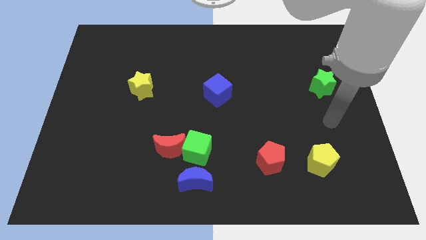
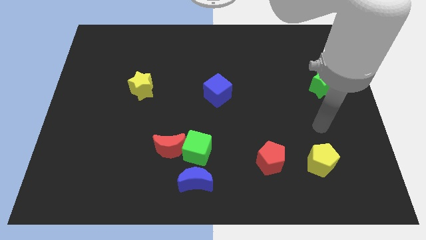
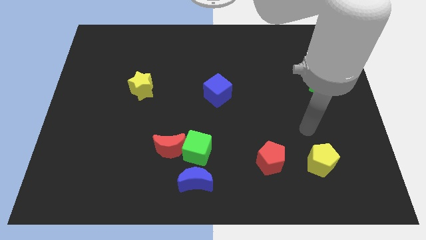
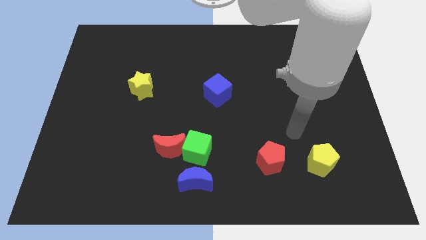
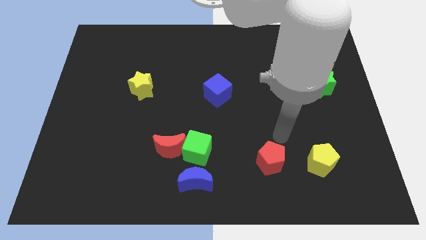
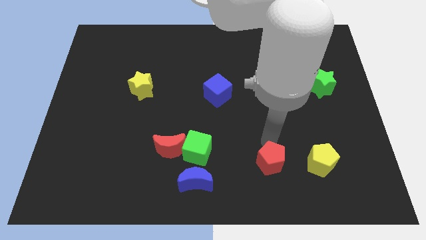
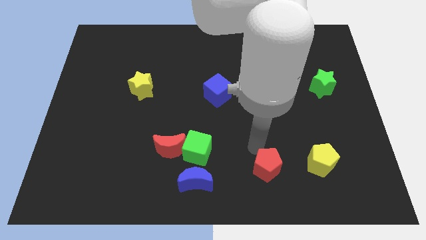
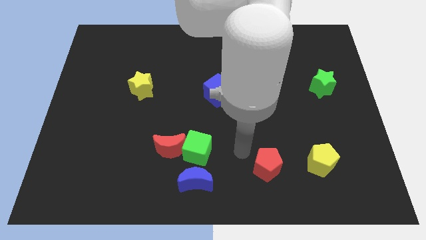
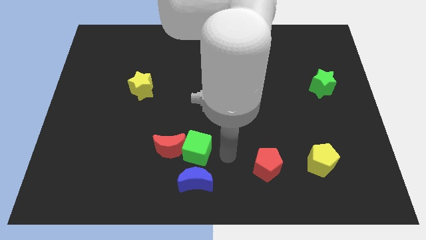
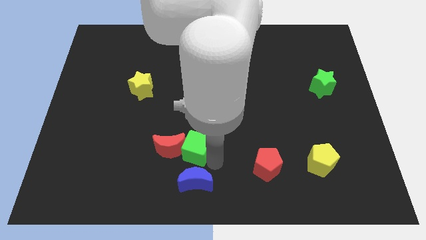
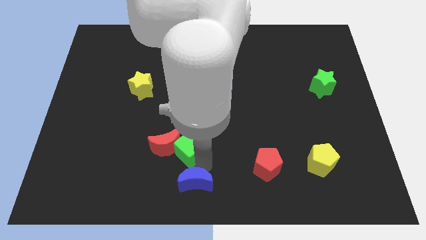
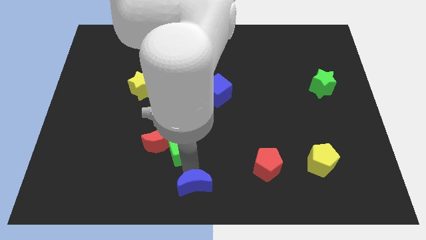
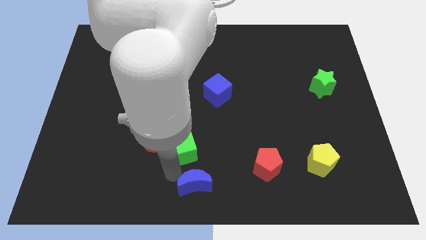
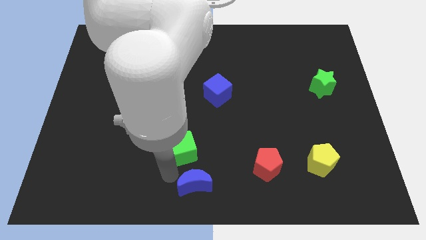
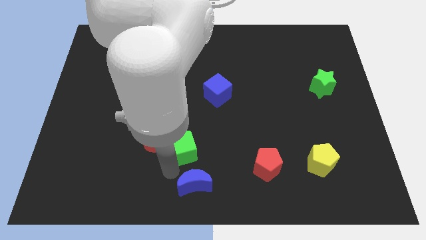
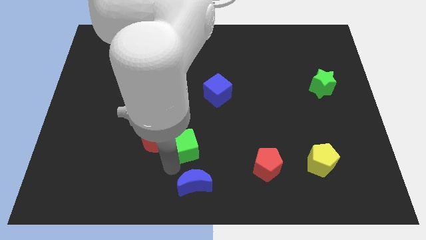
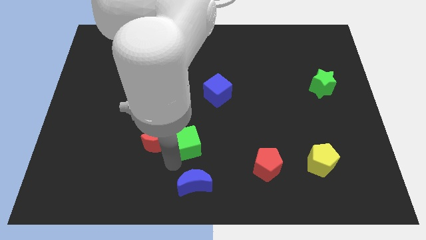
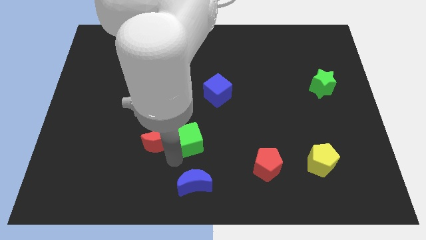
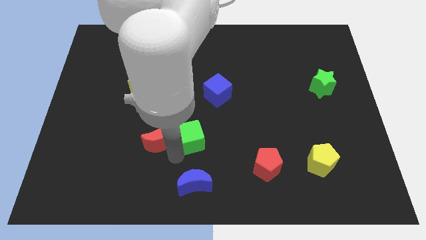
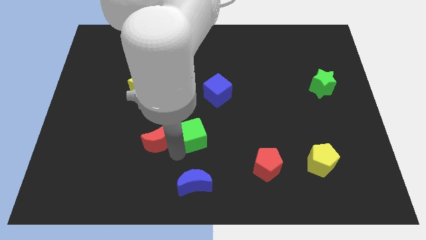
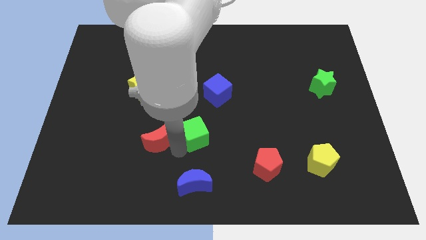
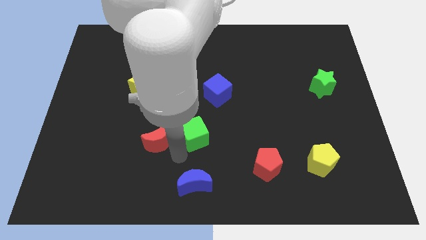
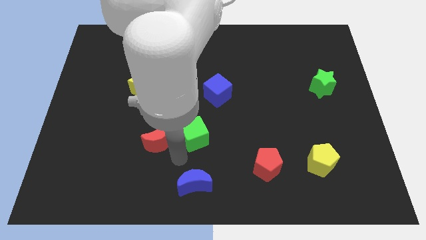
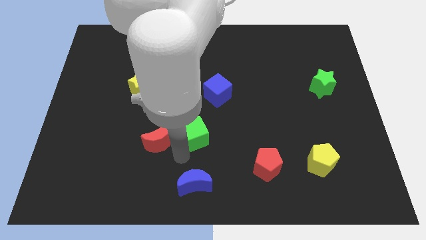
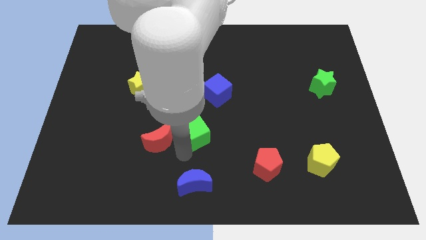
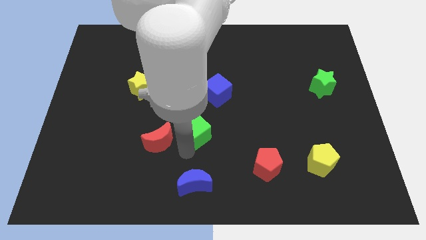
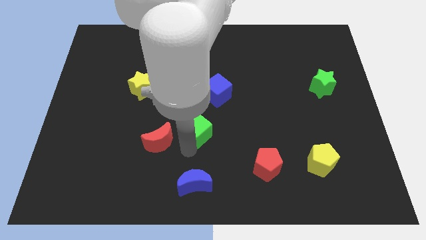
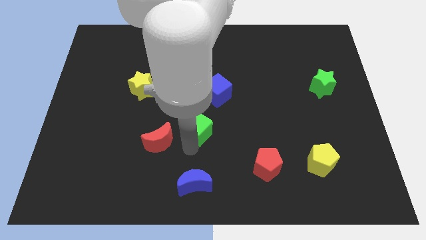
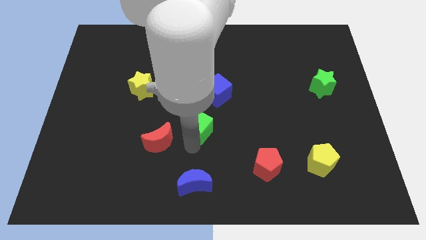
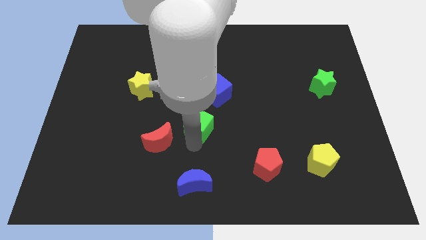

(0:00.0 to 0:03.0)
move the green cube away from the red moon and blue moon

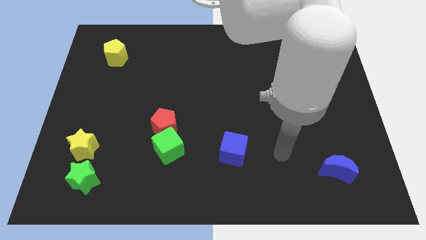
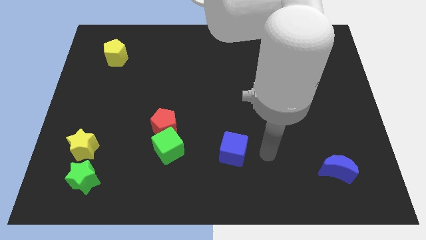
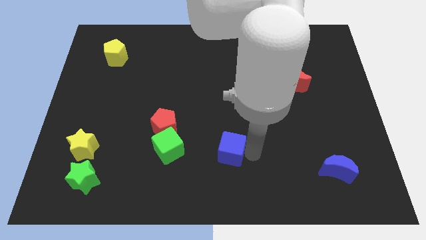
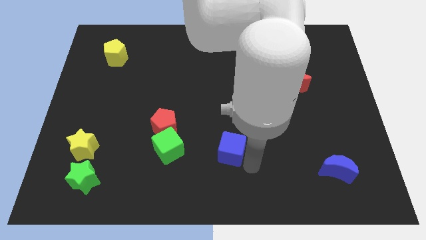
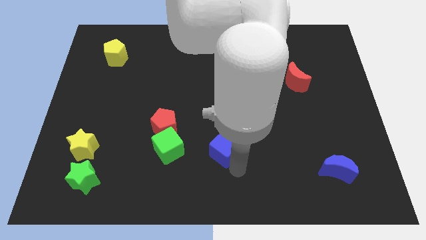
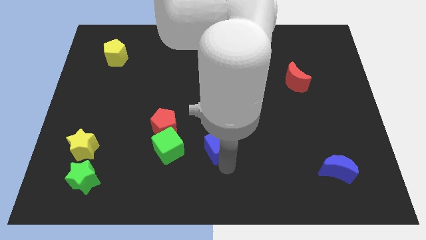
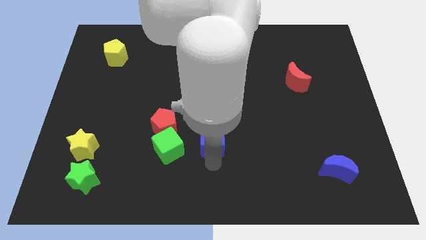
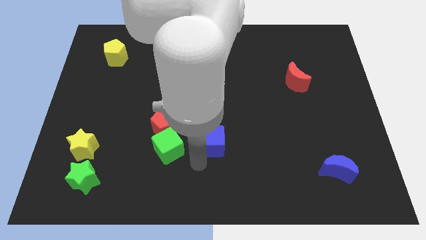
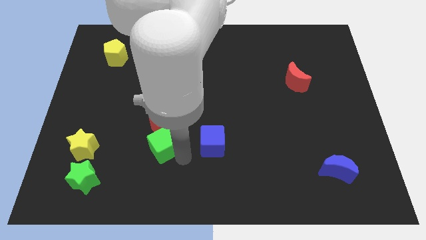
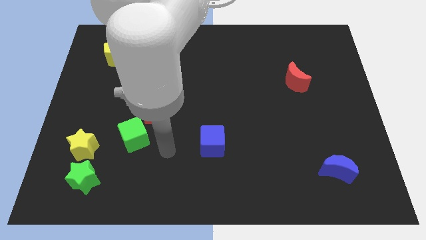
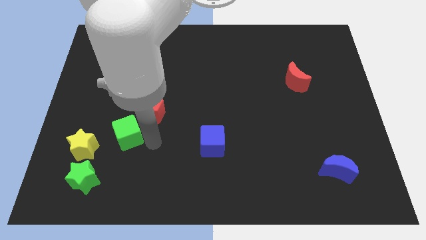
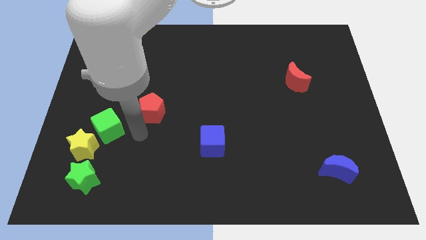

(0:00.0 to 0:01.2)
separate the red pentagon from the green cube

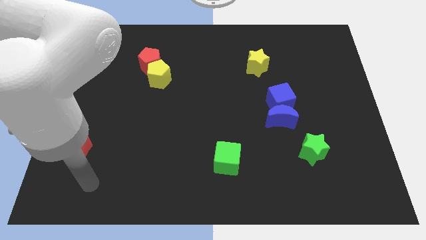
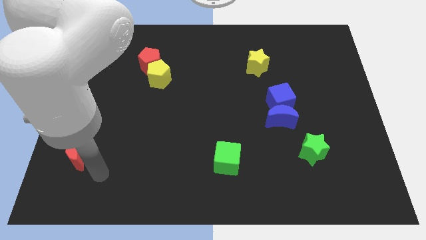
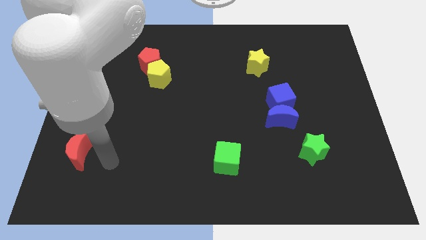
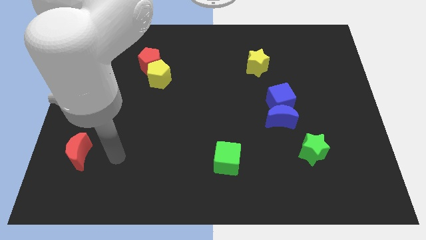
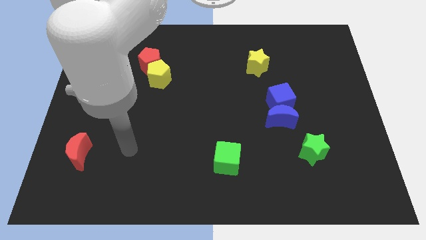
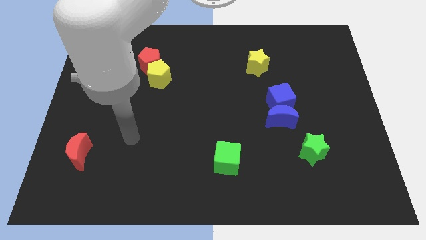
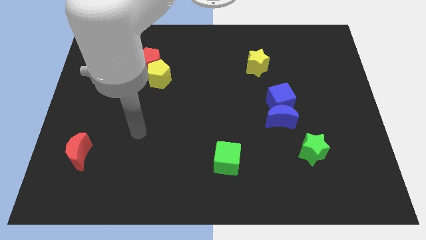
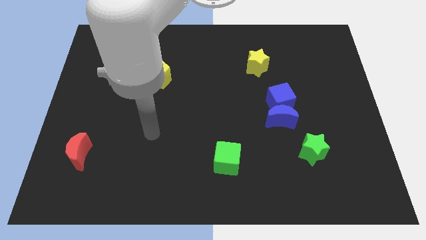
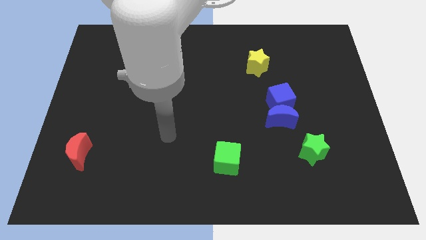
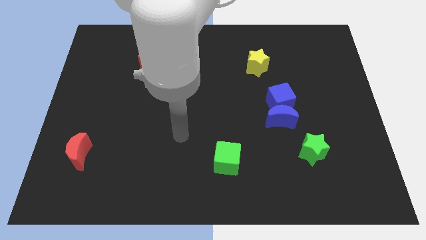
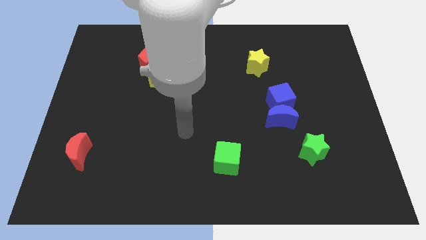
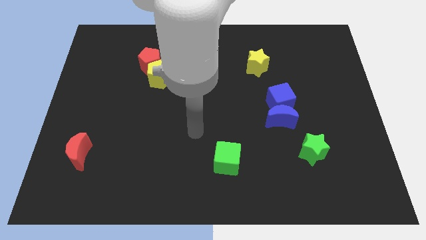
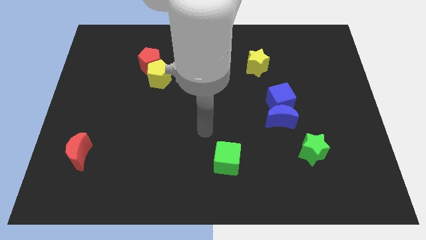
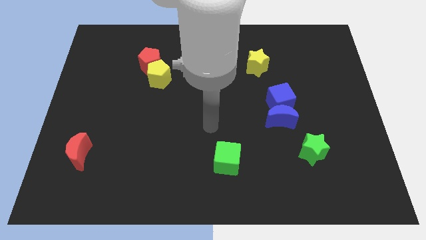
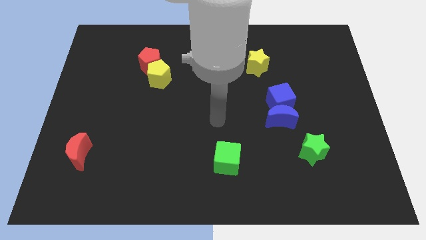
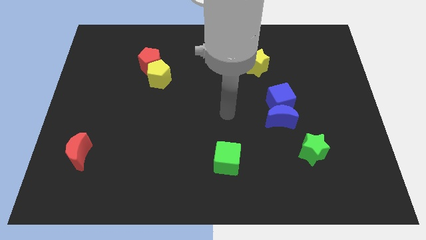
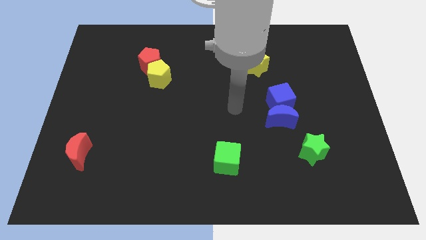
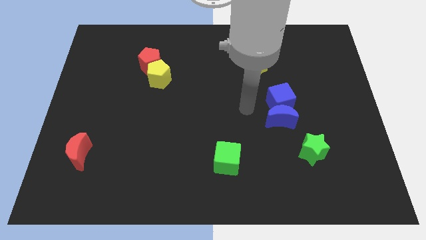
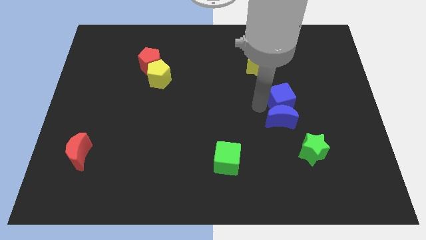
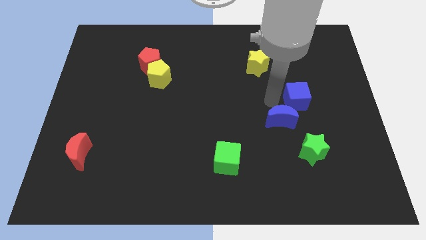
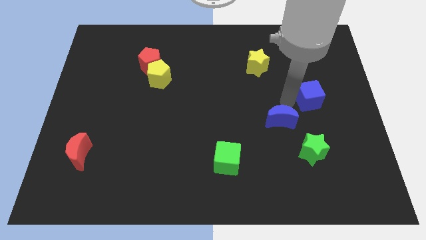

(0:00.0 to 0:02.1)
separate the blue moon from the blue cube

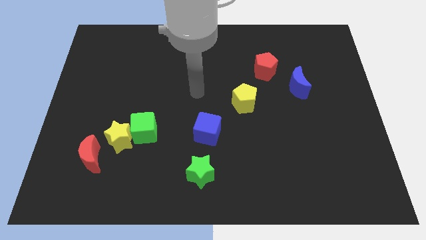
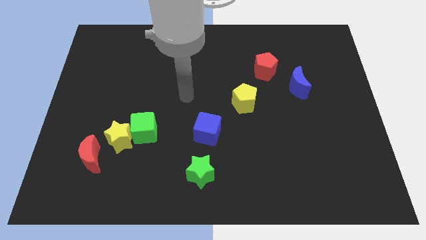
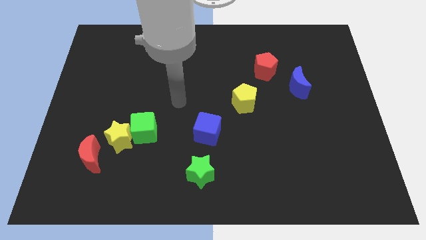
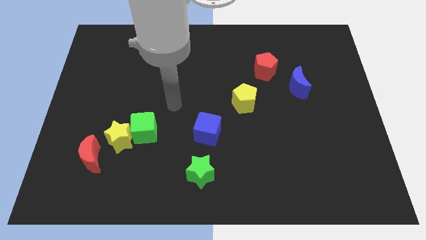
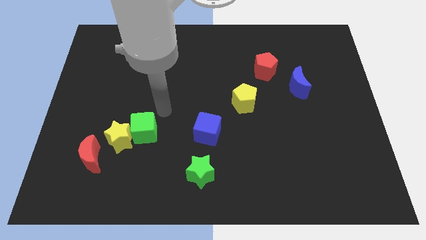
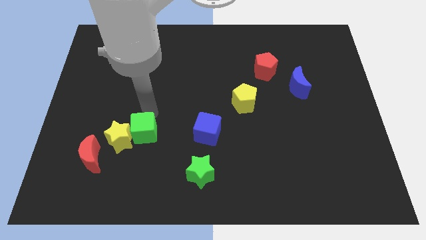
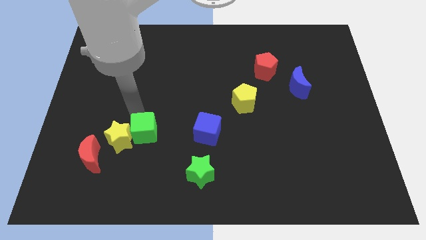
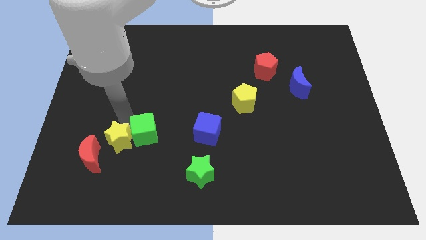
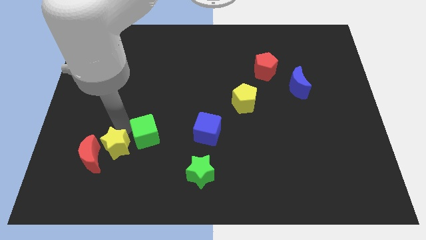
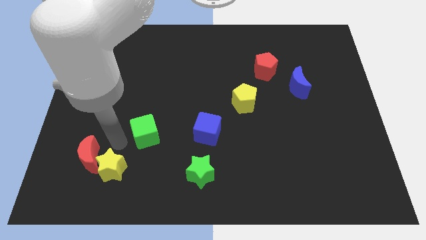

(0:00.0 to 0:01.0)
separate the green cube from the yellow star

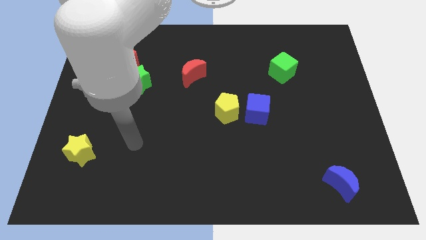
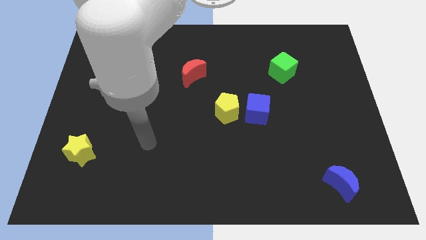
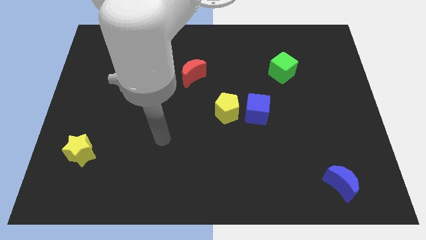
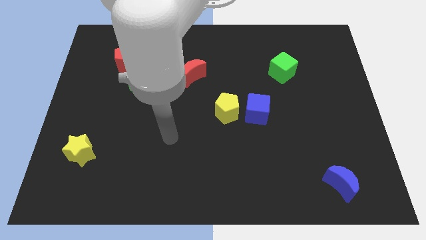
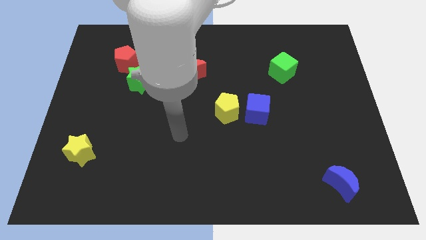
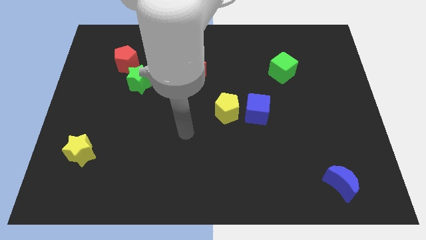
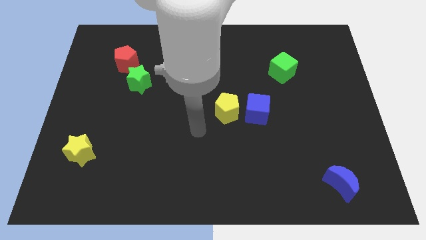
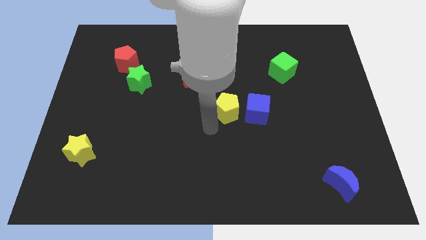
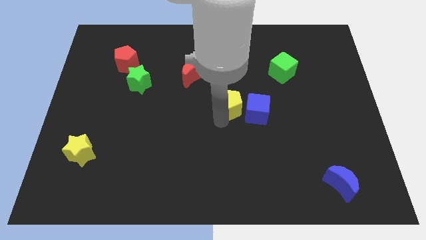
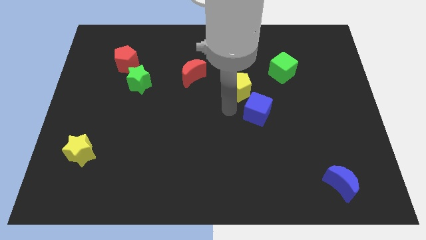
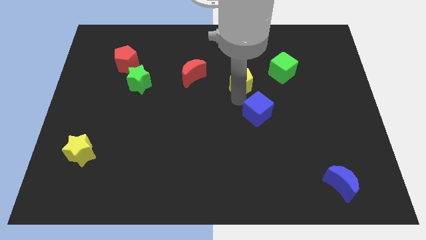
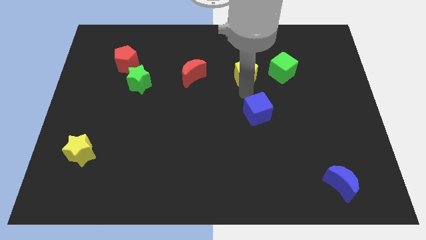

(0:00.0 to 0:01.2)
move the blue cube away from the yellow pentagon

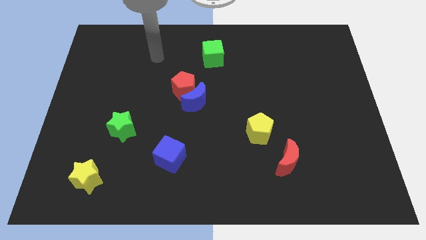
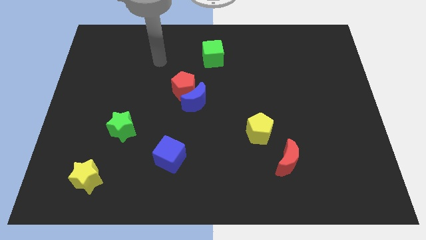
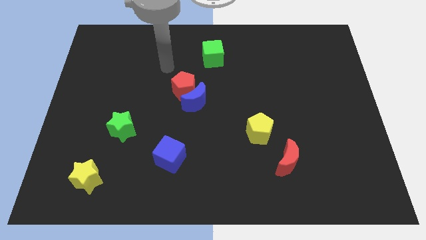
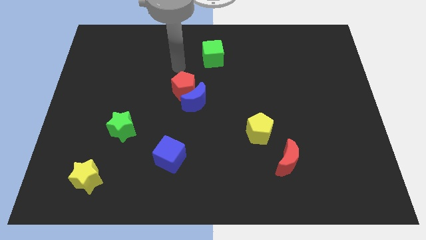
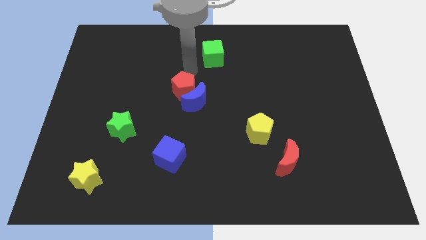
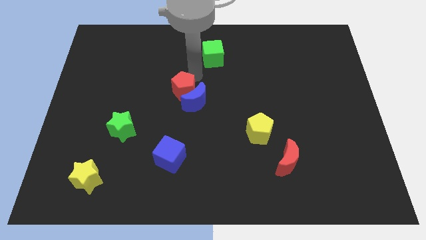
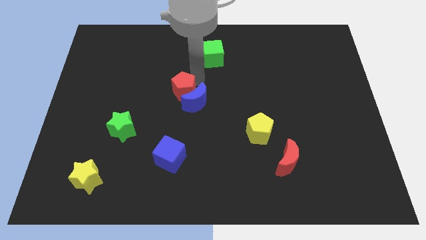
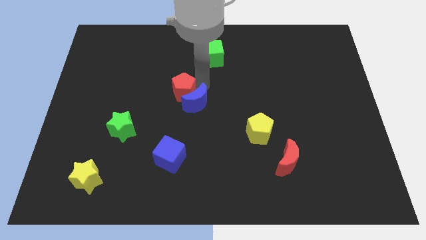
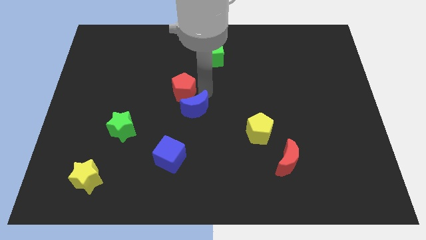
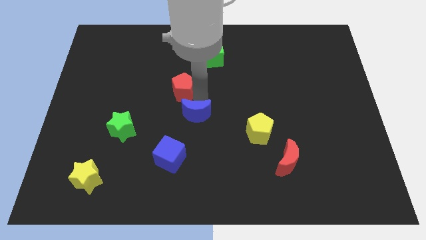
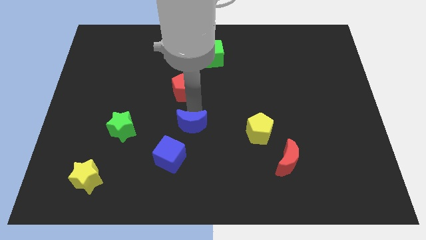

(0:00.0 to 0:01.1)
pull the red pentagon apart from the blue moon
